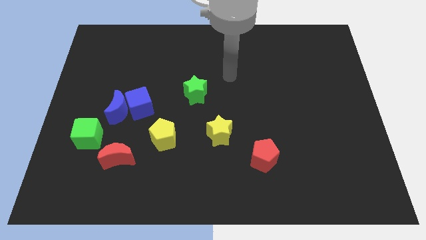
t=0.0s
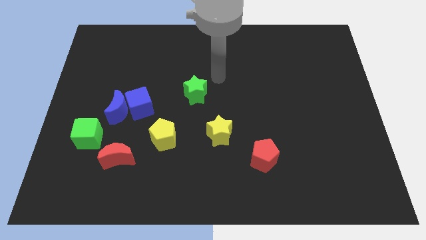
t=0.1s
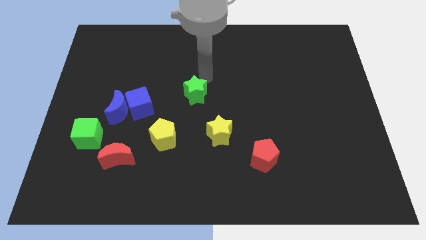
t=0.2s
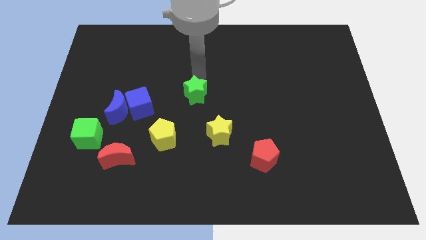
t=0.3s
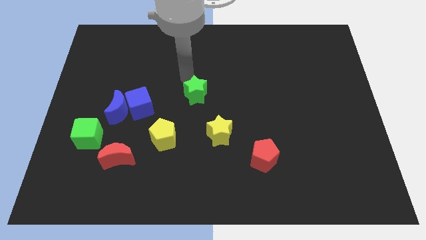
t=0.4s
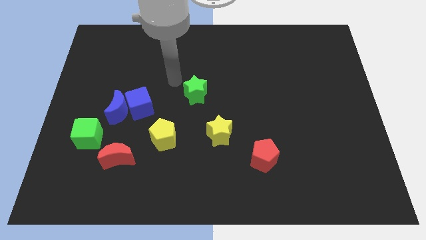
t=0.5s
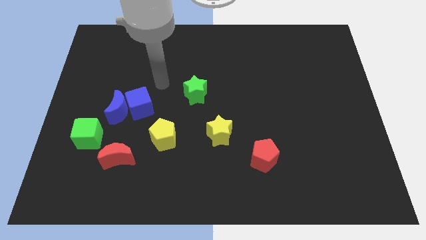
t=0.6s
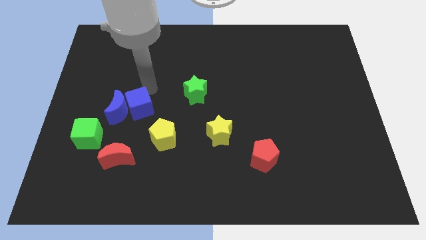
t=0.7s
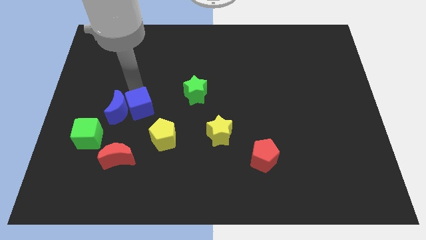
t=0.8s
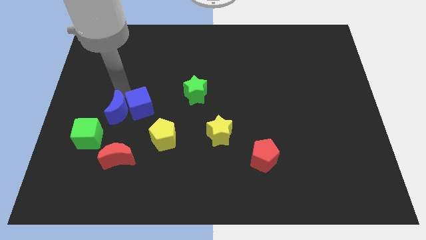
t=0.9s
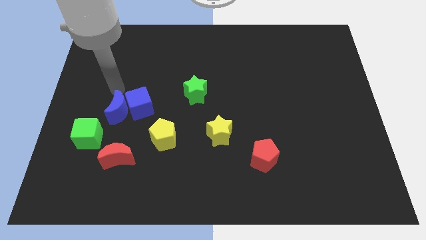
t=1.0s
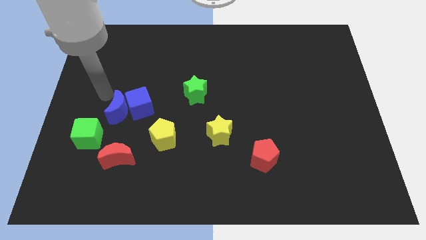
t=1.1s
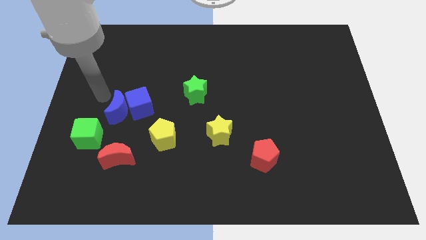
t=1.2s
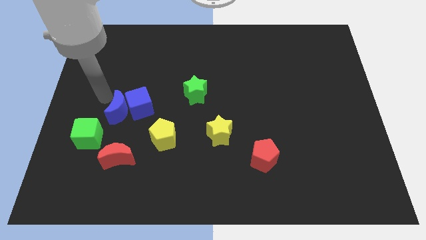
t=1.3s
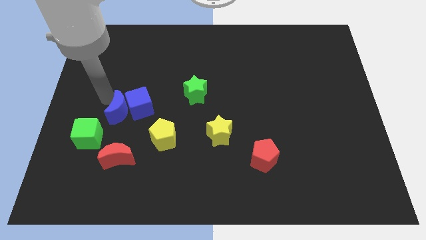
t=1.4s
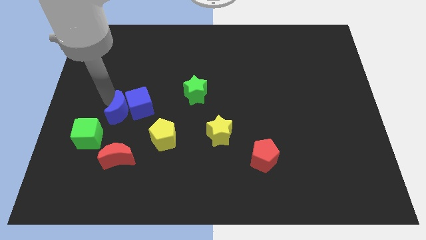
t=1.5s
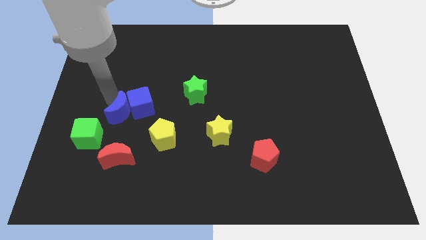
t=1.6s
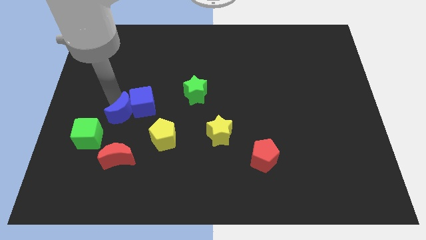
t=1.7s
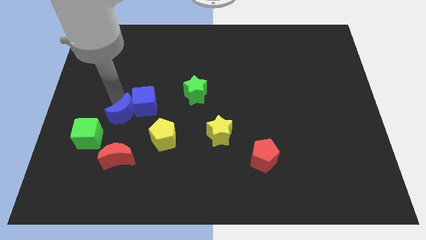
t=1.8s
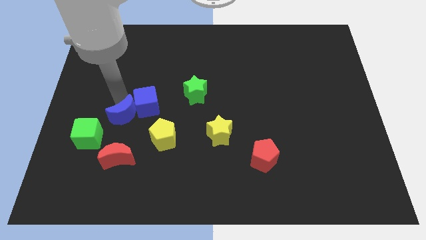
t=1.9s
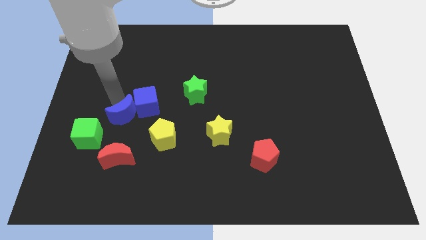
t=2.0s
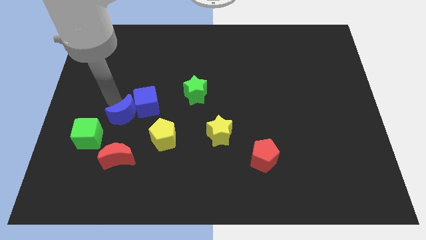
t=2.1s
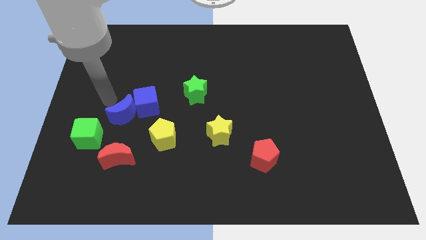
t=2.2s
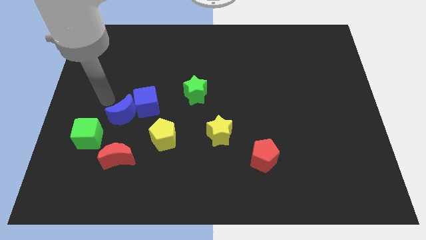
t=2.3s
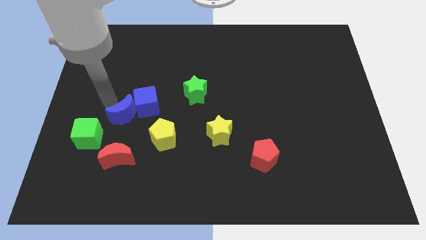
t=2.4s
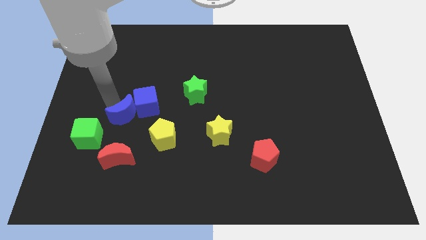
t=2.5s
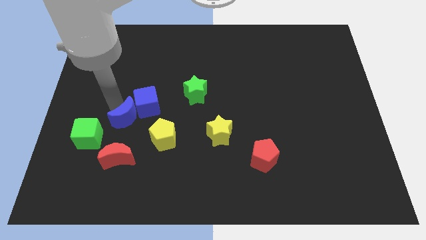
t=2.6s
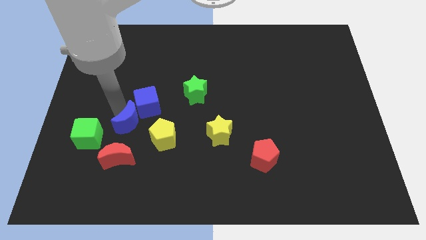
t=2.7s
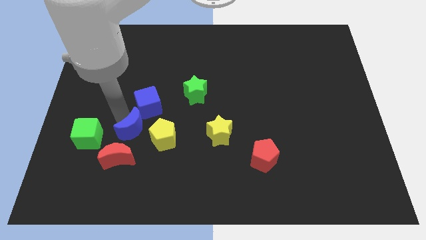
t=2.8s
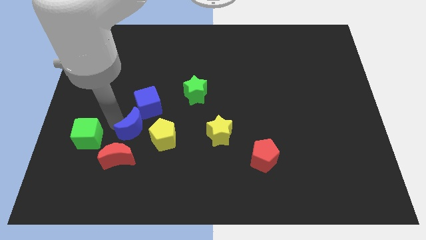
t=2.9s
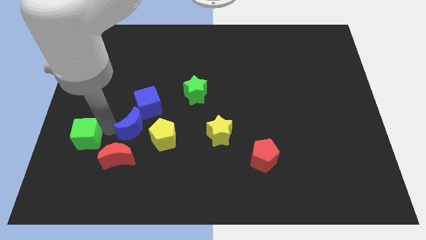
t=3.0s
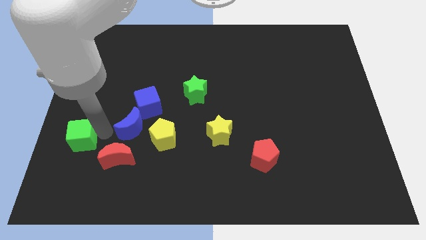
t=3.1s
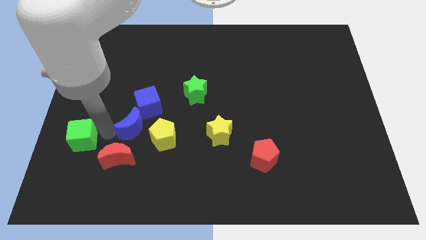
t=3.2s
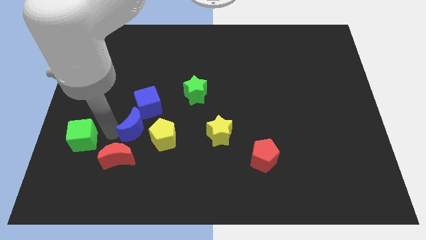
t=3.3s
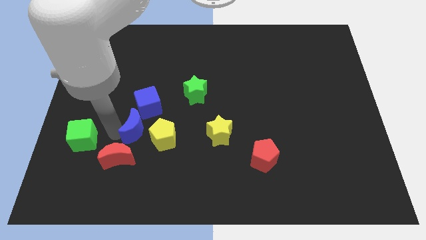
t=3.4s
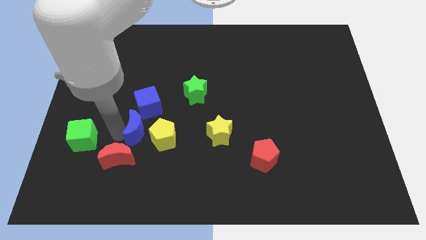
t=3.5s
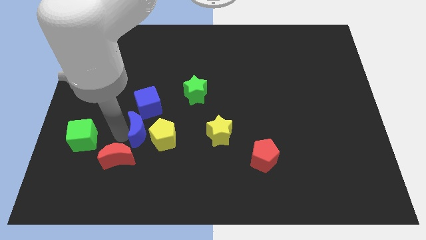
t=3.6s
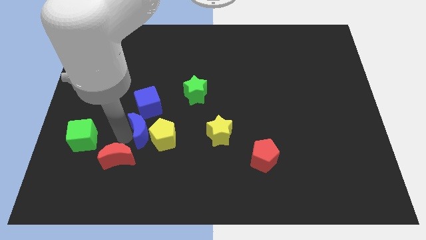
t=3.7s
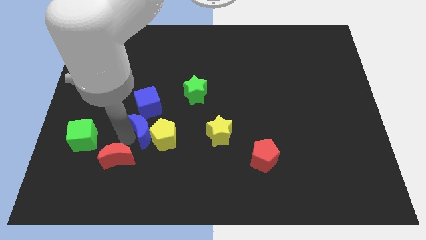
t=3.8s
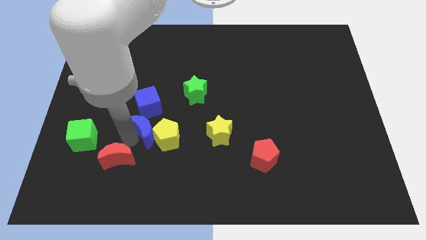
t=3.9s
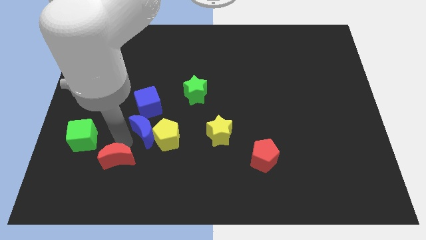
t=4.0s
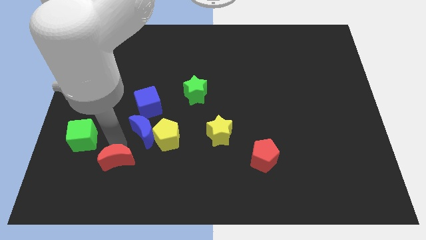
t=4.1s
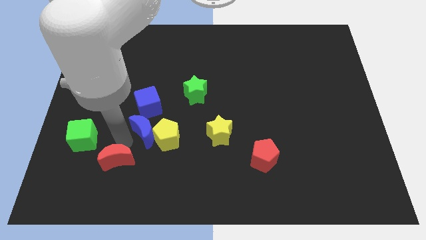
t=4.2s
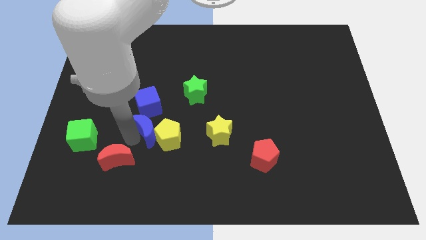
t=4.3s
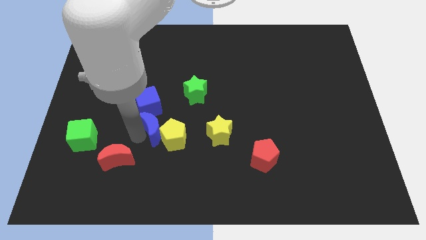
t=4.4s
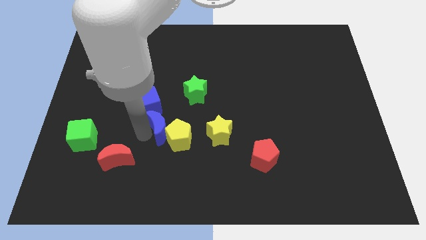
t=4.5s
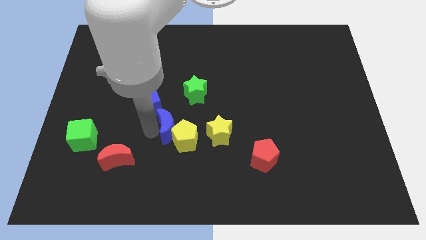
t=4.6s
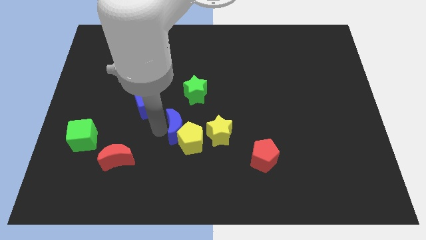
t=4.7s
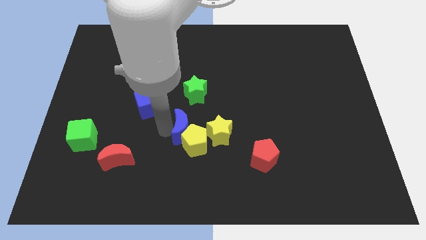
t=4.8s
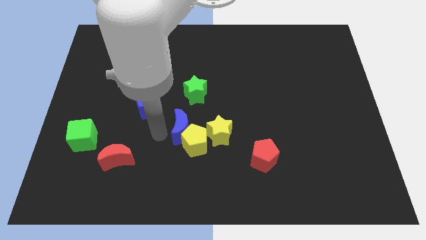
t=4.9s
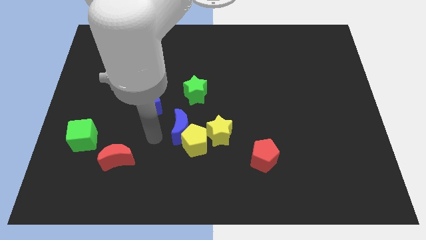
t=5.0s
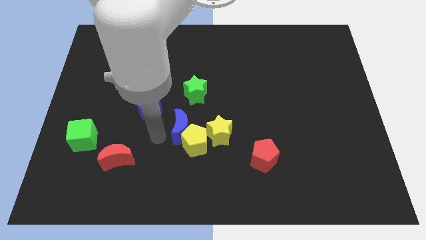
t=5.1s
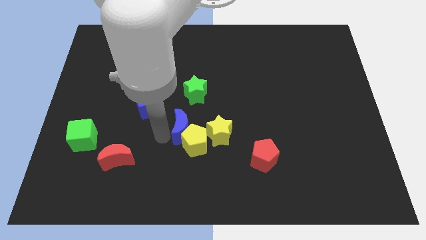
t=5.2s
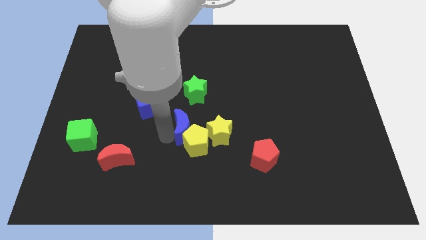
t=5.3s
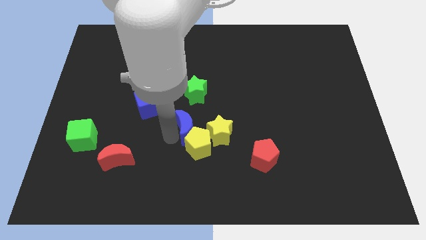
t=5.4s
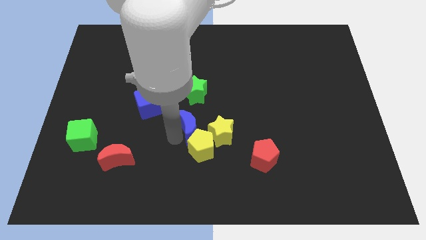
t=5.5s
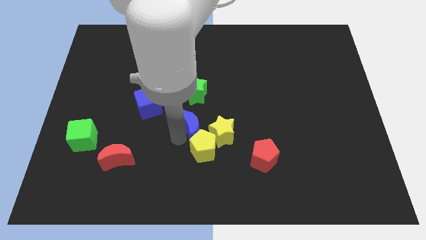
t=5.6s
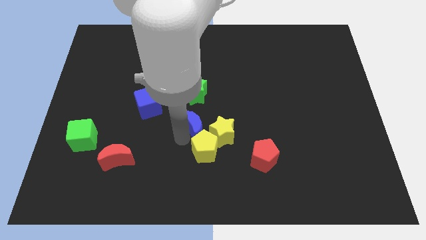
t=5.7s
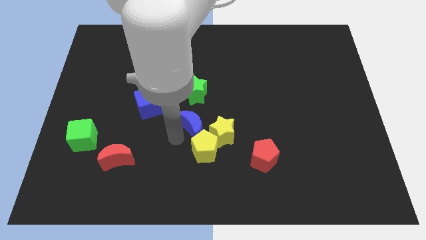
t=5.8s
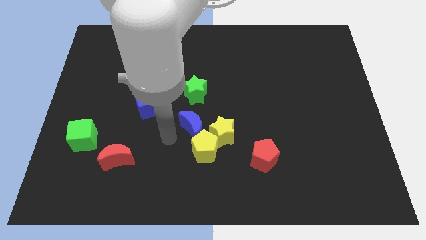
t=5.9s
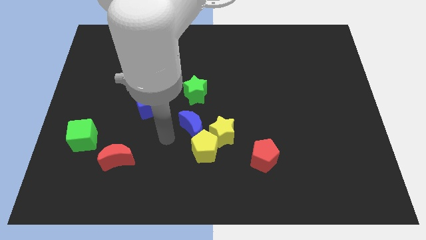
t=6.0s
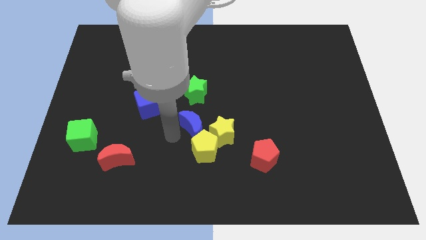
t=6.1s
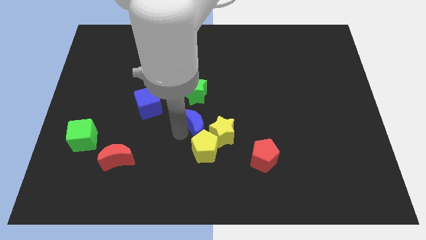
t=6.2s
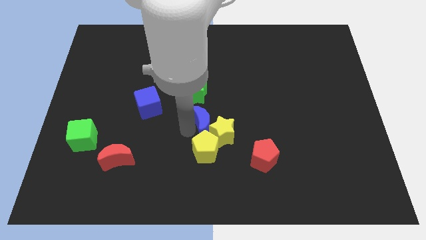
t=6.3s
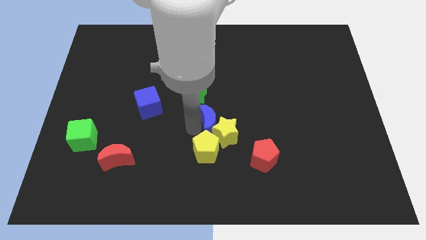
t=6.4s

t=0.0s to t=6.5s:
push the blue moon to the right

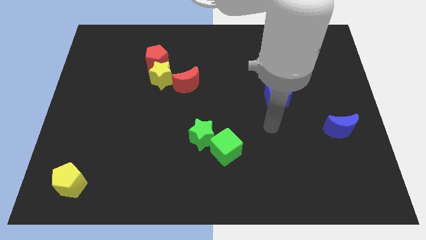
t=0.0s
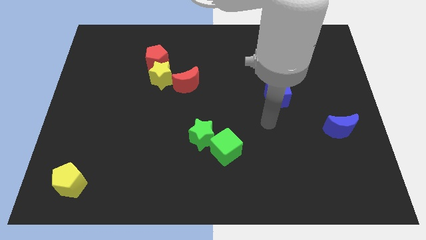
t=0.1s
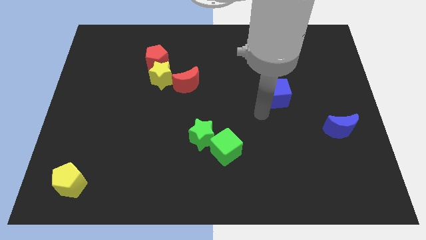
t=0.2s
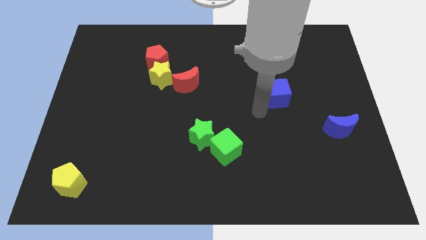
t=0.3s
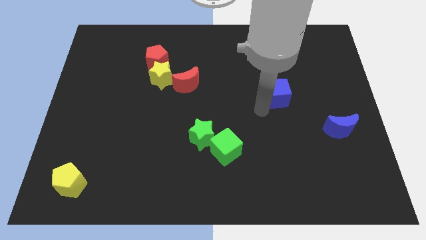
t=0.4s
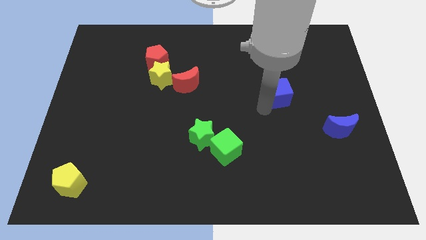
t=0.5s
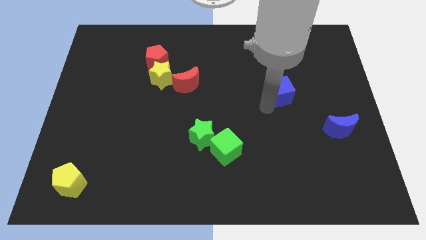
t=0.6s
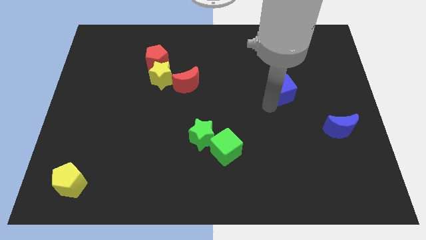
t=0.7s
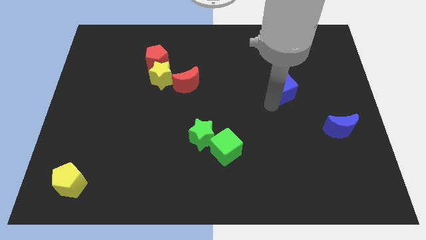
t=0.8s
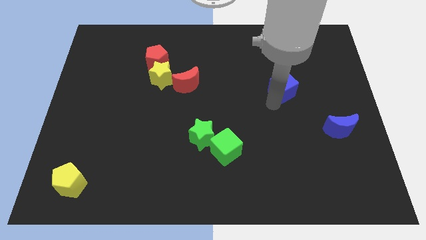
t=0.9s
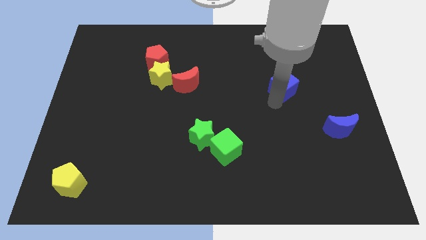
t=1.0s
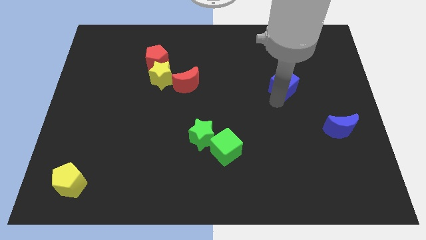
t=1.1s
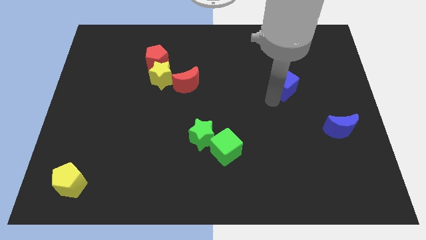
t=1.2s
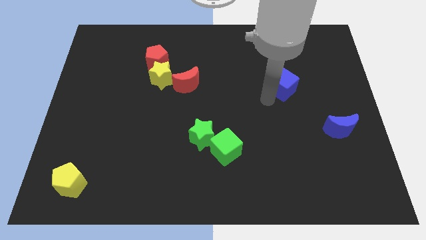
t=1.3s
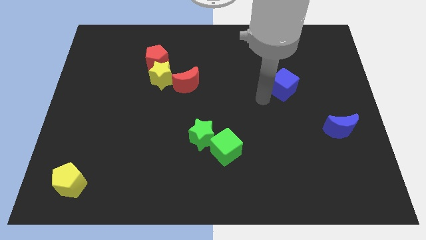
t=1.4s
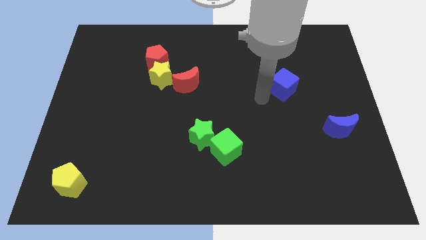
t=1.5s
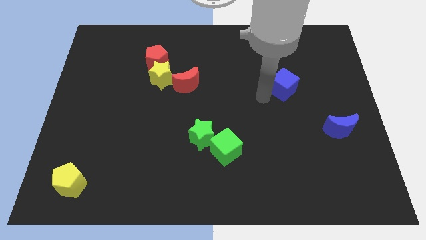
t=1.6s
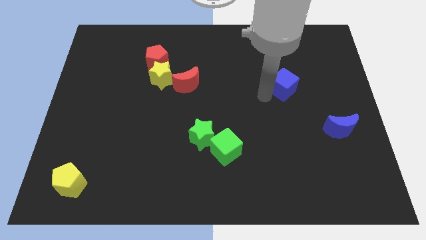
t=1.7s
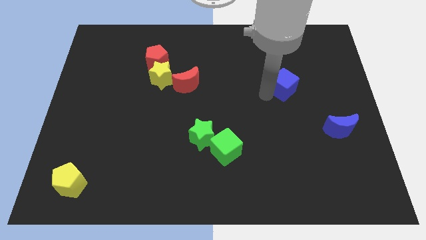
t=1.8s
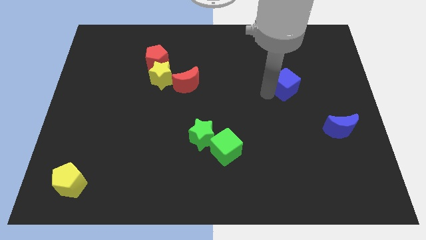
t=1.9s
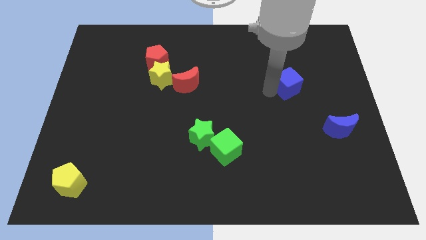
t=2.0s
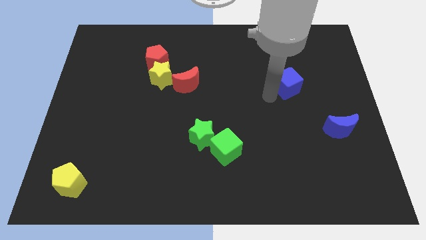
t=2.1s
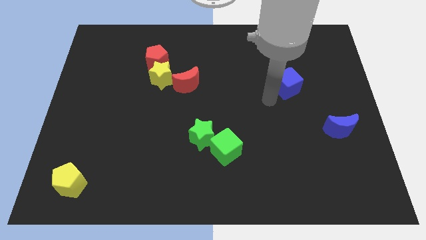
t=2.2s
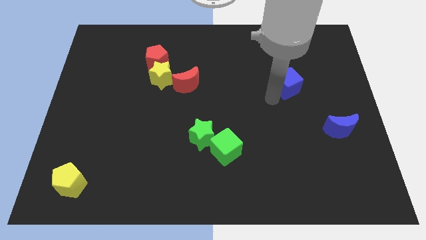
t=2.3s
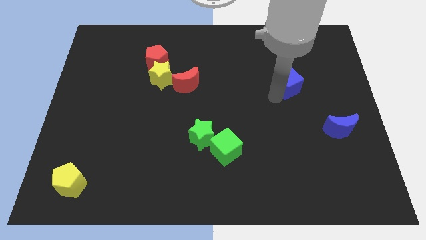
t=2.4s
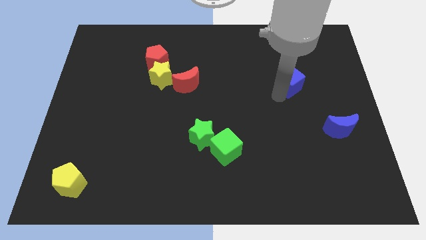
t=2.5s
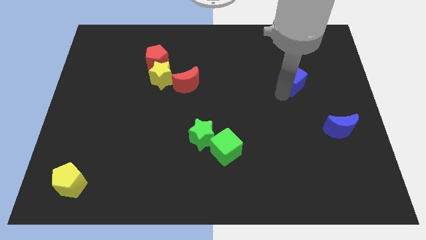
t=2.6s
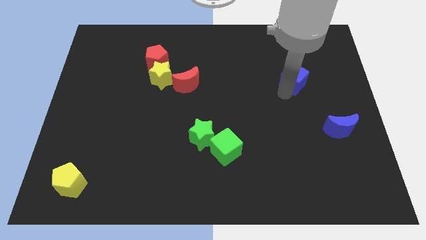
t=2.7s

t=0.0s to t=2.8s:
slightly move the blue cube upwards and to the right
